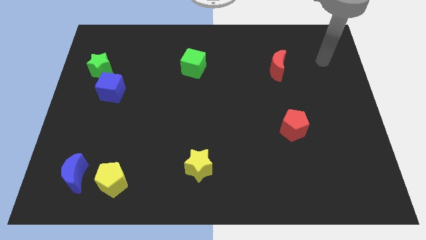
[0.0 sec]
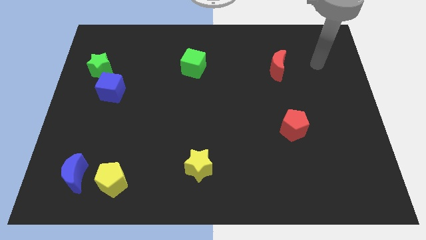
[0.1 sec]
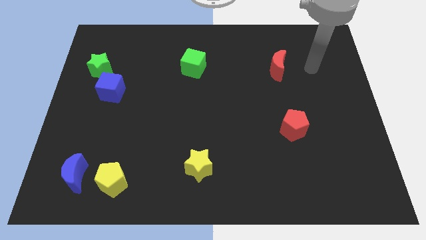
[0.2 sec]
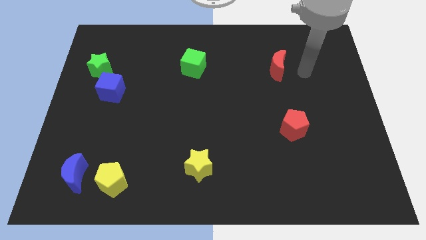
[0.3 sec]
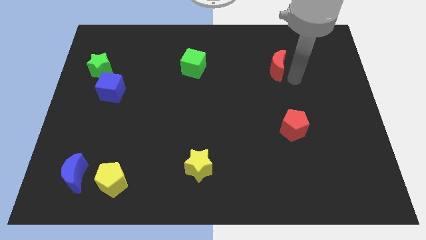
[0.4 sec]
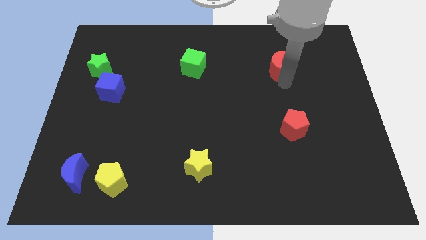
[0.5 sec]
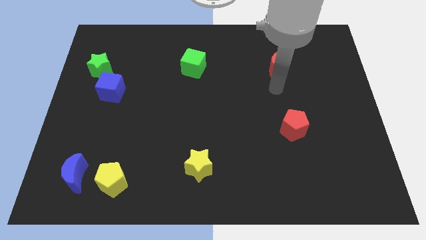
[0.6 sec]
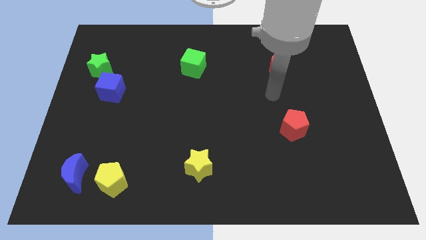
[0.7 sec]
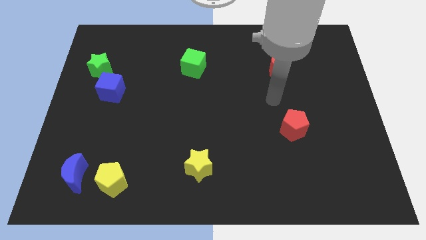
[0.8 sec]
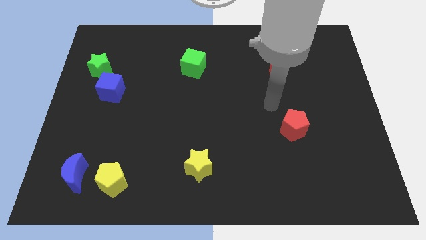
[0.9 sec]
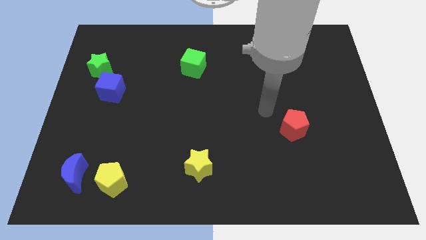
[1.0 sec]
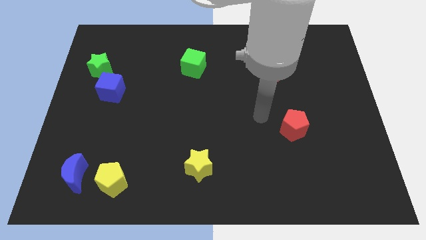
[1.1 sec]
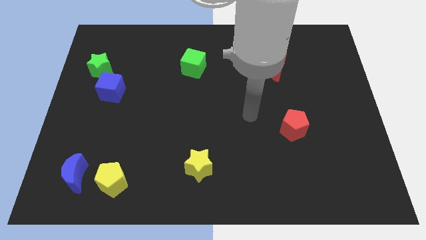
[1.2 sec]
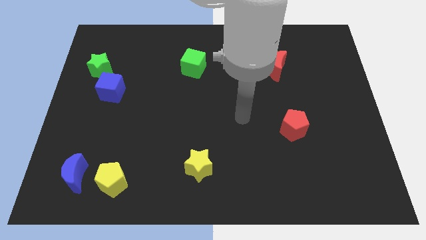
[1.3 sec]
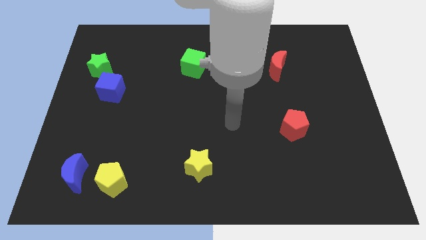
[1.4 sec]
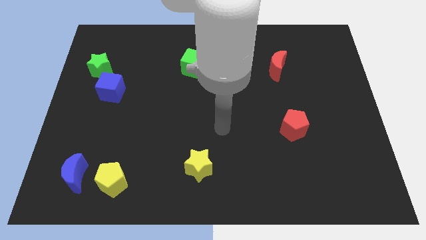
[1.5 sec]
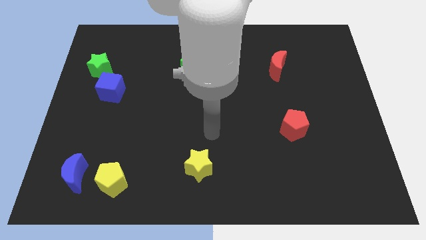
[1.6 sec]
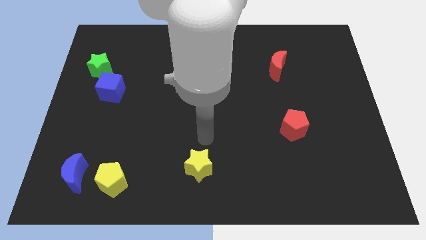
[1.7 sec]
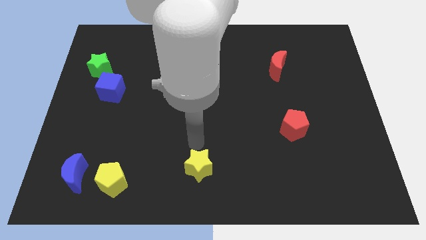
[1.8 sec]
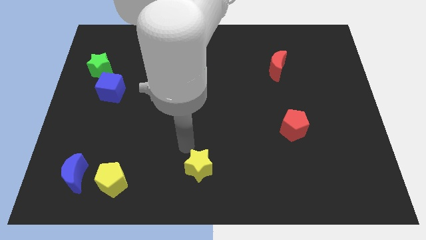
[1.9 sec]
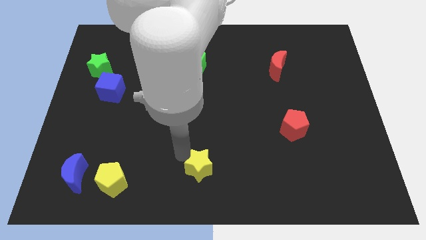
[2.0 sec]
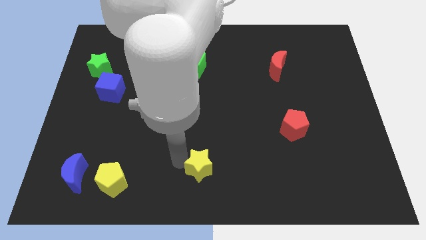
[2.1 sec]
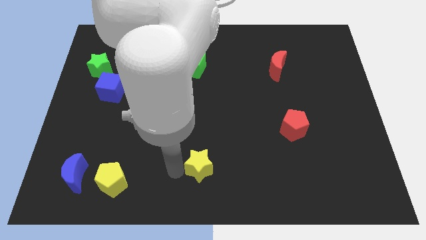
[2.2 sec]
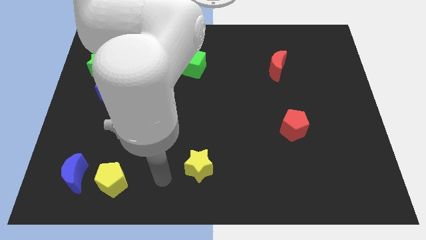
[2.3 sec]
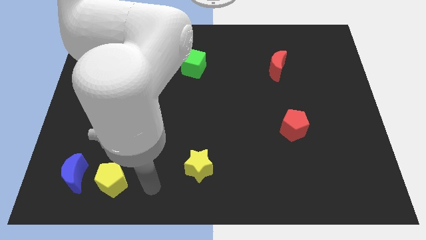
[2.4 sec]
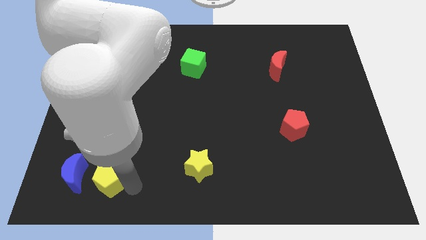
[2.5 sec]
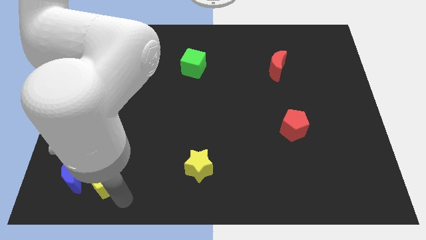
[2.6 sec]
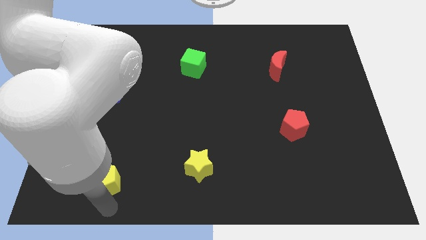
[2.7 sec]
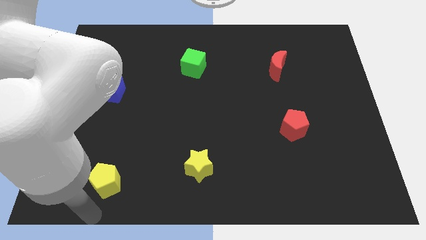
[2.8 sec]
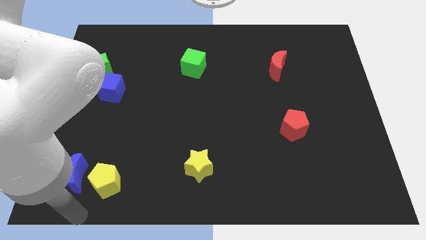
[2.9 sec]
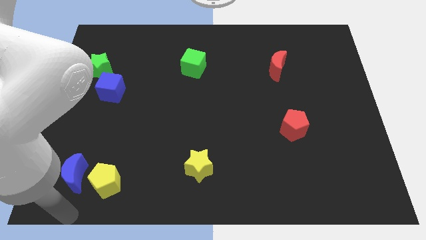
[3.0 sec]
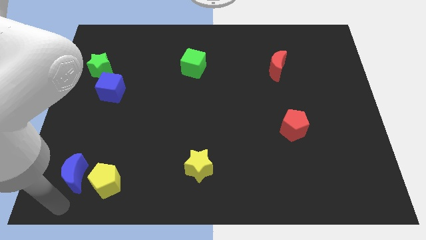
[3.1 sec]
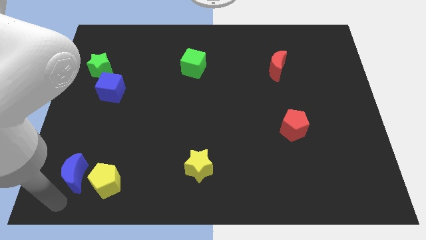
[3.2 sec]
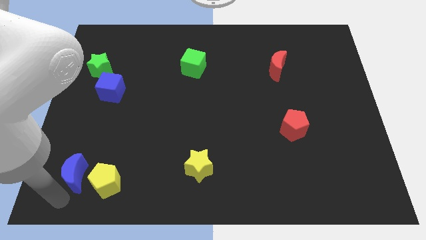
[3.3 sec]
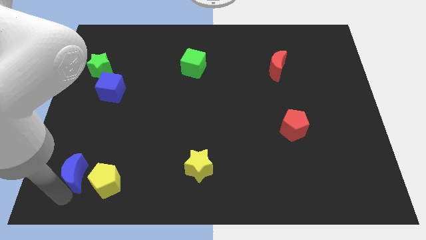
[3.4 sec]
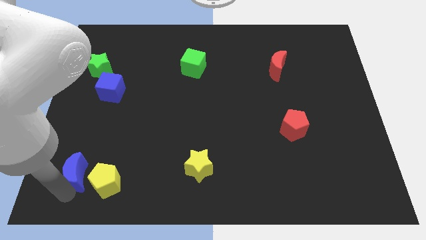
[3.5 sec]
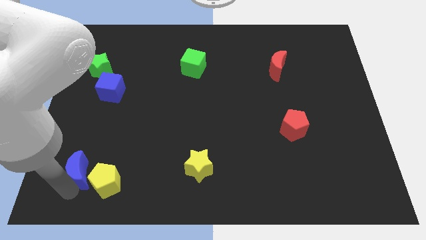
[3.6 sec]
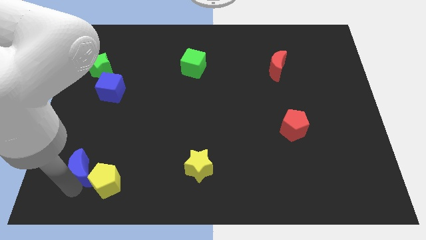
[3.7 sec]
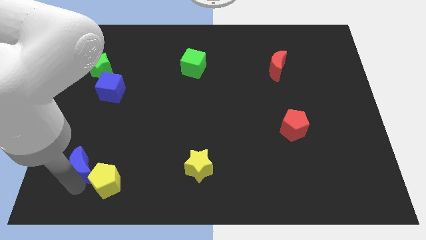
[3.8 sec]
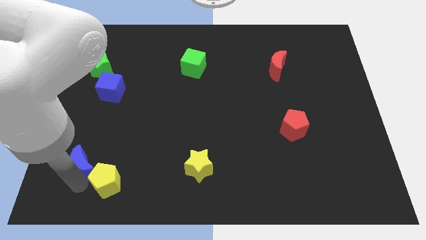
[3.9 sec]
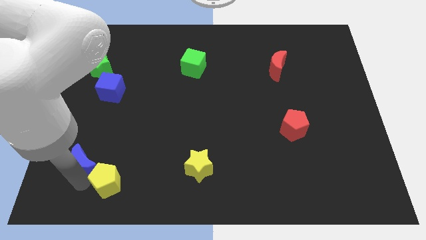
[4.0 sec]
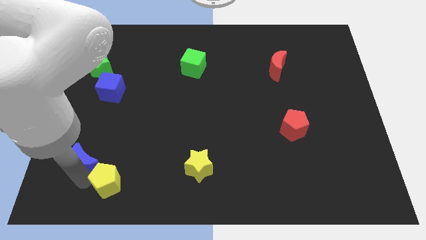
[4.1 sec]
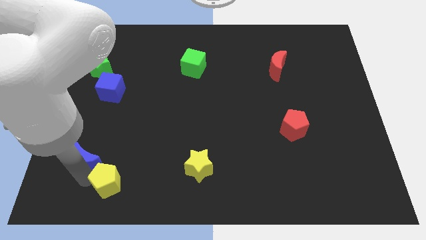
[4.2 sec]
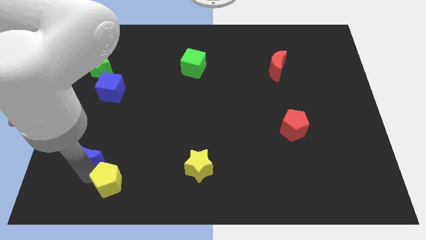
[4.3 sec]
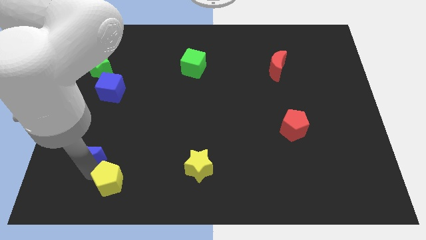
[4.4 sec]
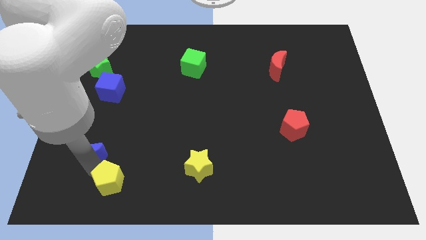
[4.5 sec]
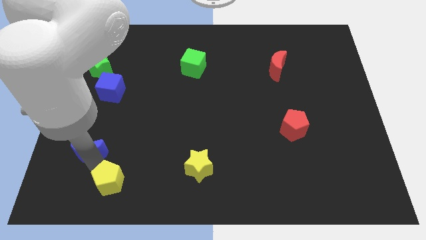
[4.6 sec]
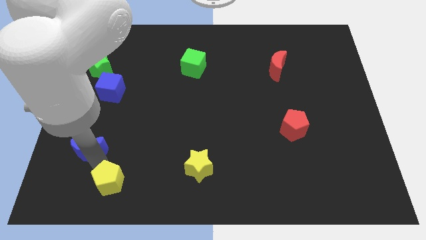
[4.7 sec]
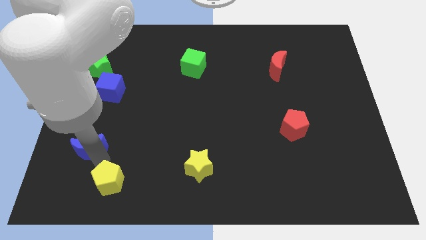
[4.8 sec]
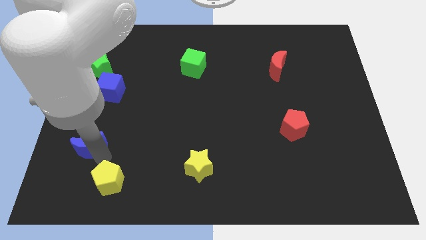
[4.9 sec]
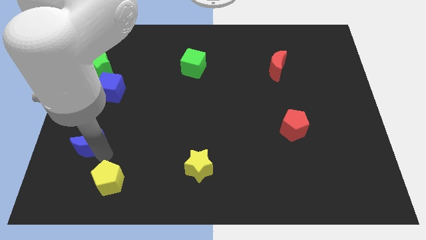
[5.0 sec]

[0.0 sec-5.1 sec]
move the blue moon up a little bit

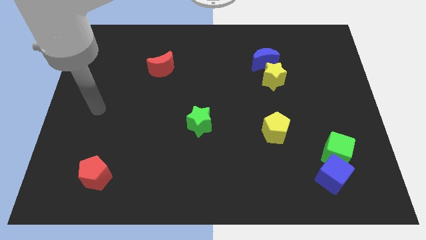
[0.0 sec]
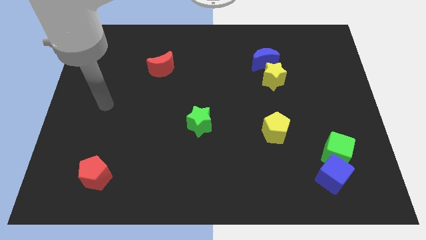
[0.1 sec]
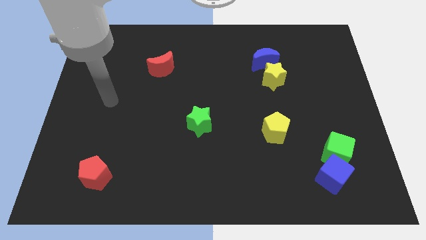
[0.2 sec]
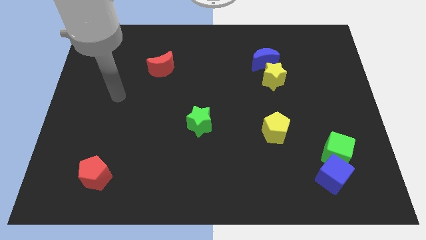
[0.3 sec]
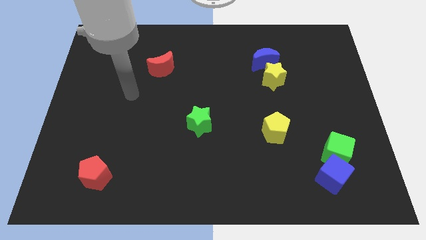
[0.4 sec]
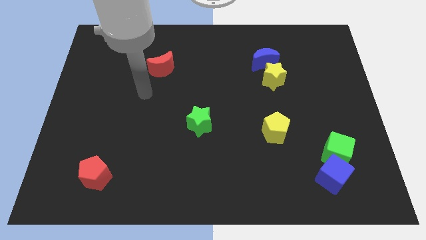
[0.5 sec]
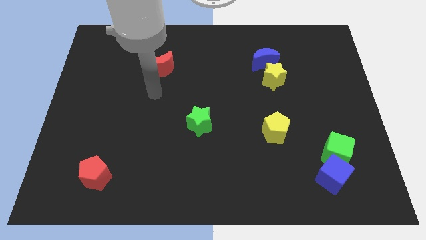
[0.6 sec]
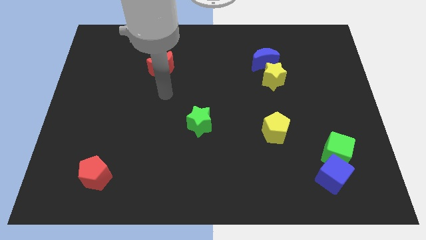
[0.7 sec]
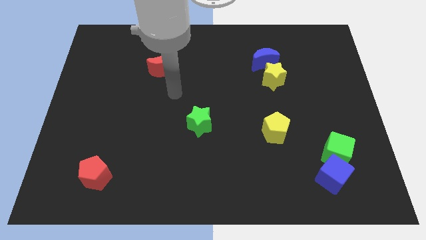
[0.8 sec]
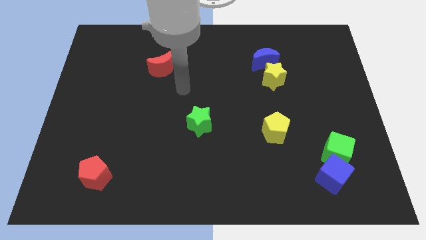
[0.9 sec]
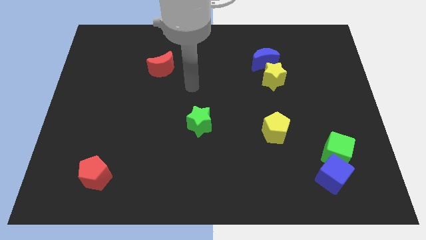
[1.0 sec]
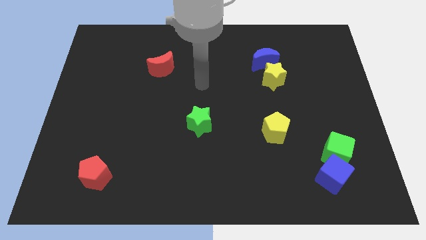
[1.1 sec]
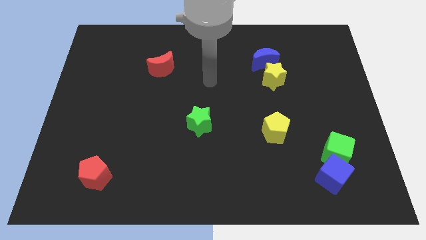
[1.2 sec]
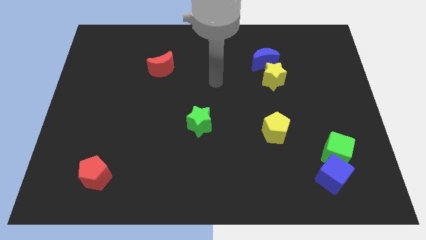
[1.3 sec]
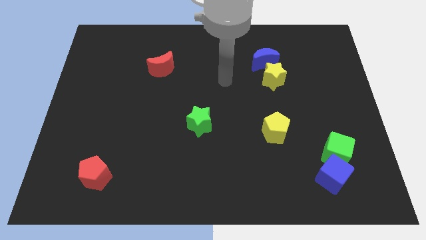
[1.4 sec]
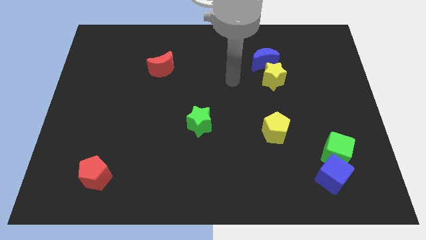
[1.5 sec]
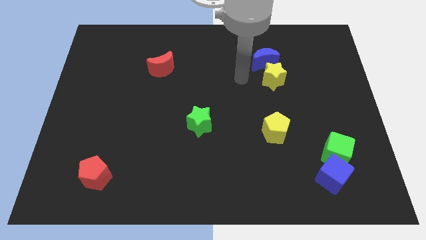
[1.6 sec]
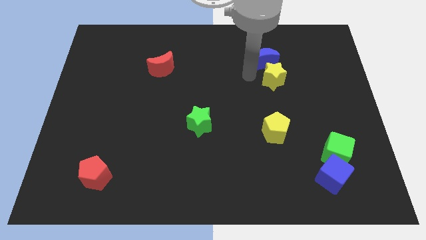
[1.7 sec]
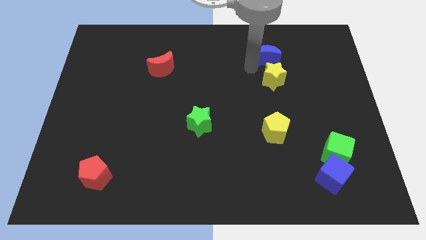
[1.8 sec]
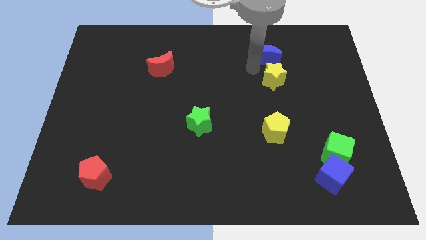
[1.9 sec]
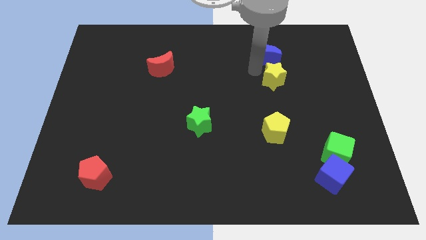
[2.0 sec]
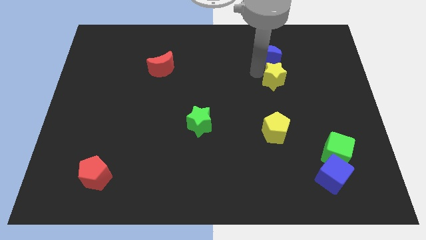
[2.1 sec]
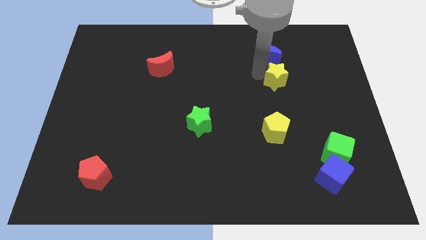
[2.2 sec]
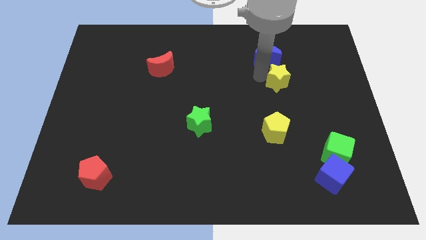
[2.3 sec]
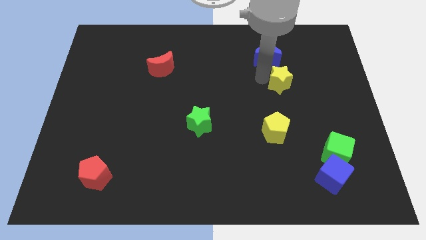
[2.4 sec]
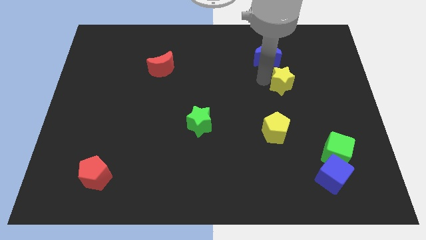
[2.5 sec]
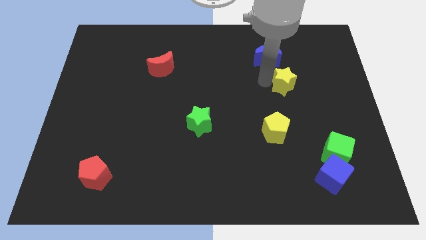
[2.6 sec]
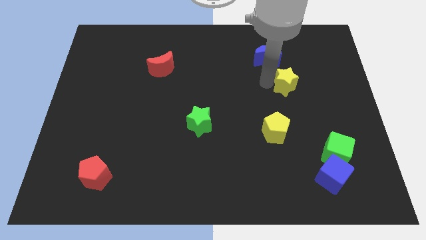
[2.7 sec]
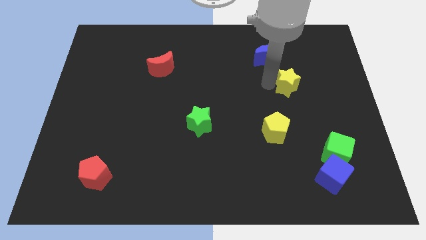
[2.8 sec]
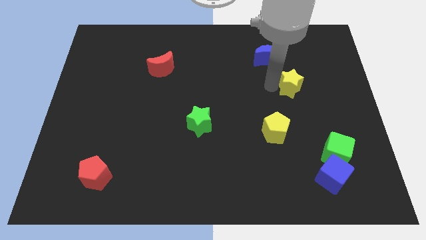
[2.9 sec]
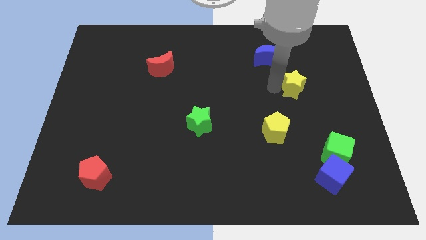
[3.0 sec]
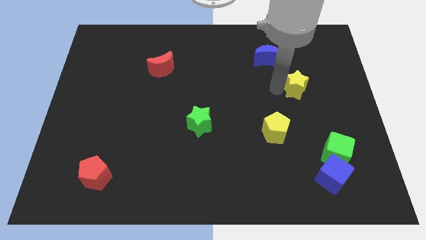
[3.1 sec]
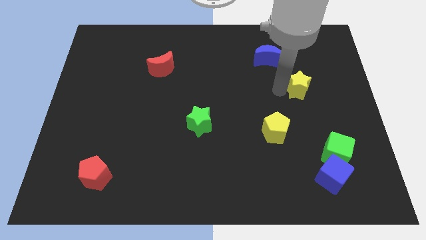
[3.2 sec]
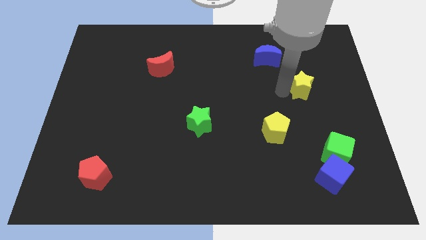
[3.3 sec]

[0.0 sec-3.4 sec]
push the yellow star a little bit diagonally downwards and to the right
